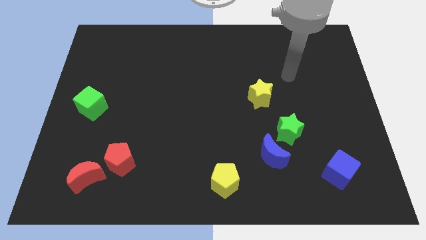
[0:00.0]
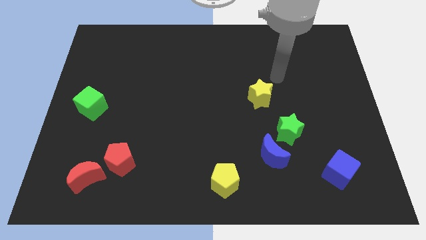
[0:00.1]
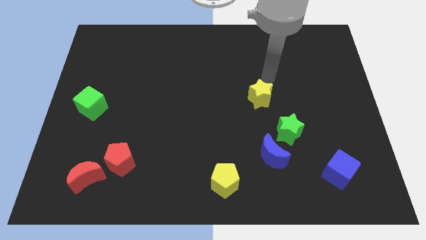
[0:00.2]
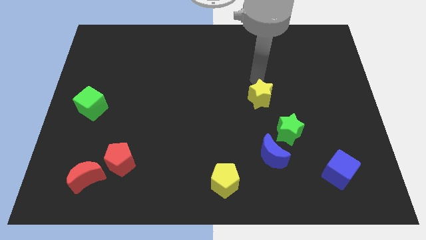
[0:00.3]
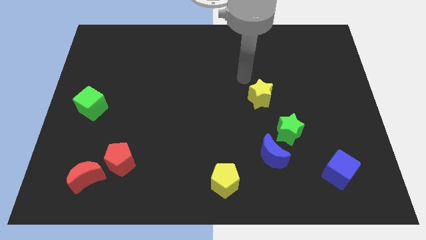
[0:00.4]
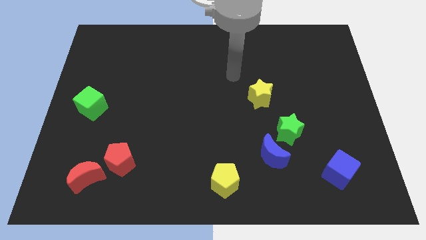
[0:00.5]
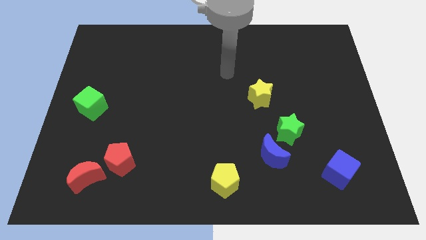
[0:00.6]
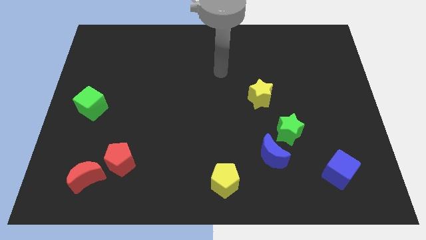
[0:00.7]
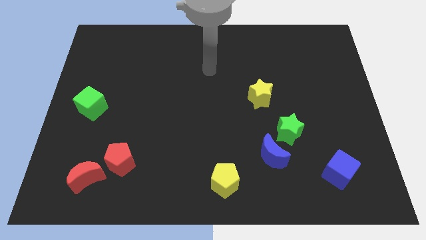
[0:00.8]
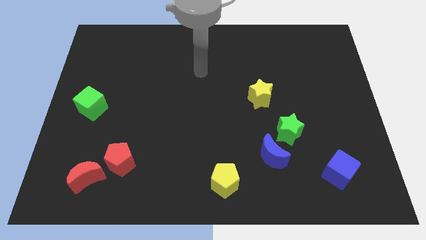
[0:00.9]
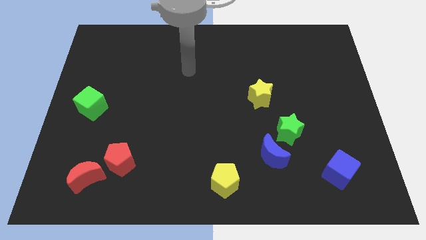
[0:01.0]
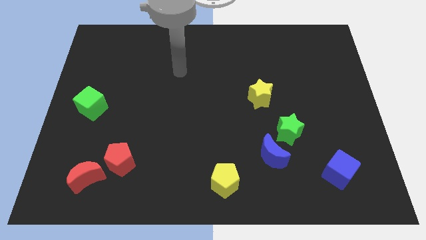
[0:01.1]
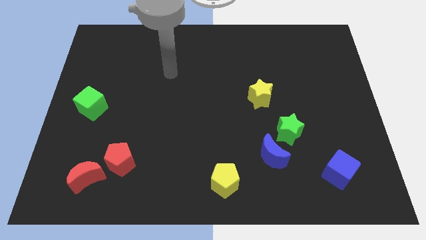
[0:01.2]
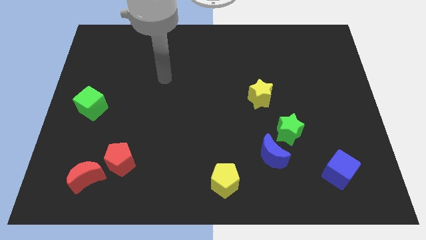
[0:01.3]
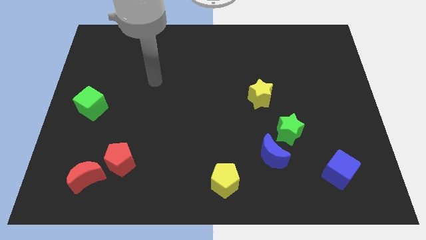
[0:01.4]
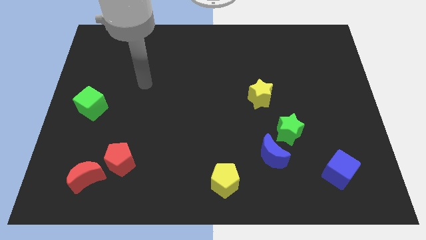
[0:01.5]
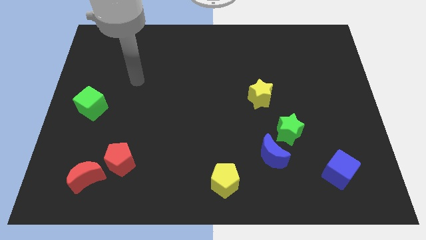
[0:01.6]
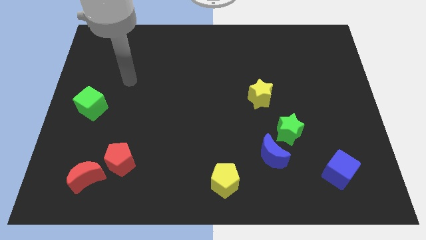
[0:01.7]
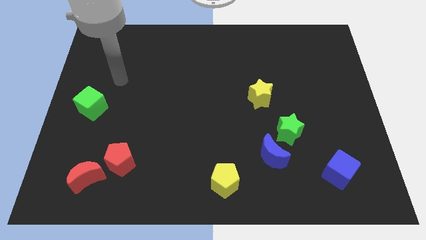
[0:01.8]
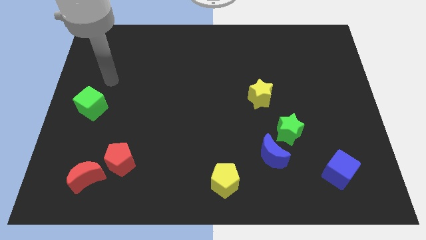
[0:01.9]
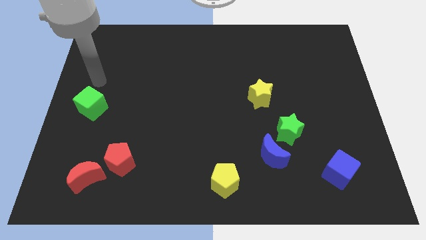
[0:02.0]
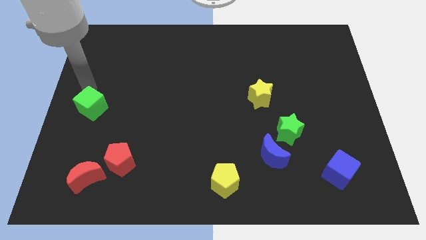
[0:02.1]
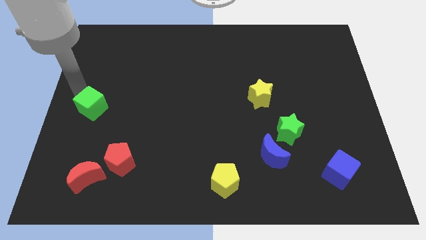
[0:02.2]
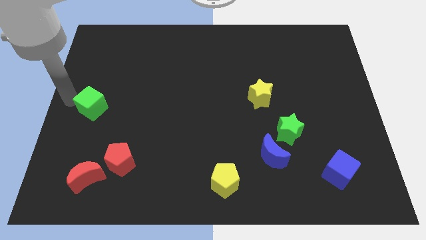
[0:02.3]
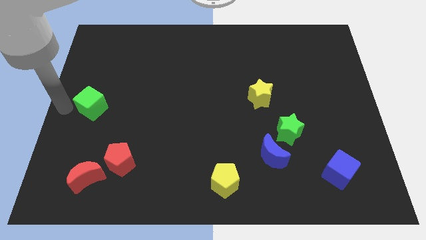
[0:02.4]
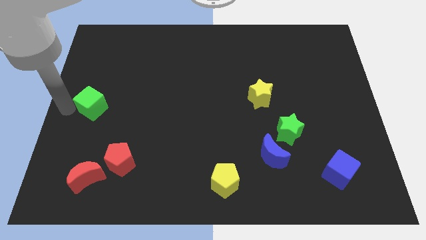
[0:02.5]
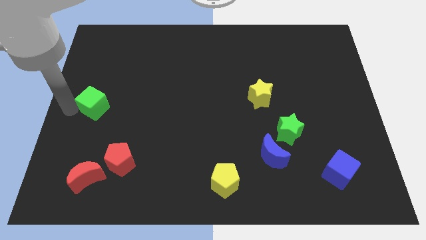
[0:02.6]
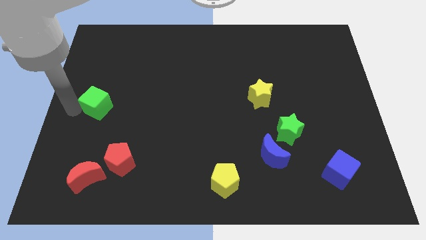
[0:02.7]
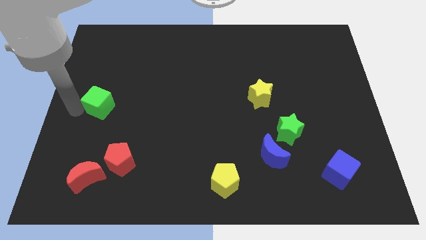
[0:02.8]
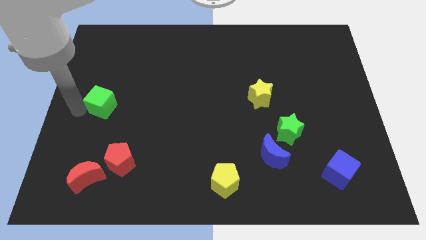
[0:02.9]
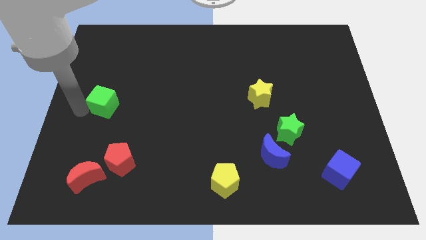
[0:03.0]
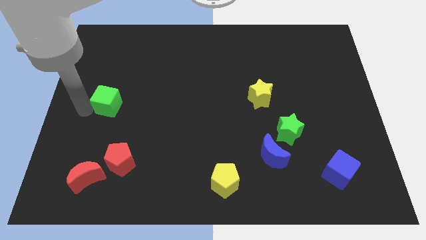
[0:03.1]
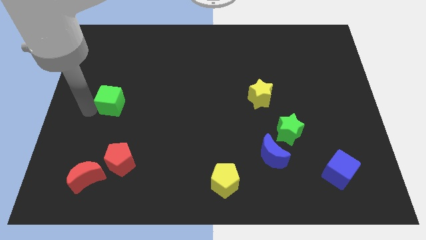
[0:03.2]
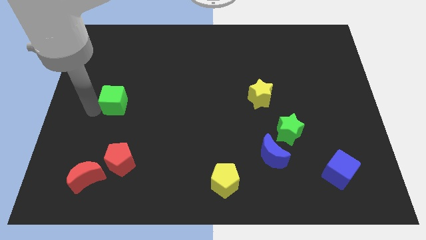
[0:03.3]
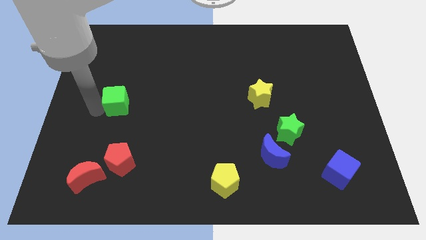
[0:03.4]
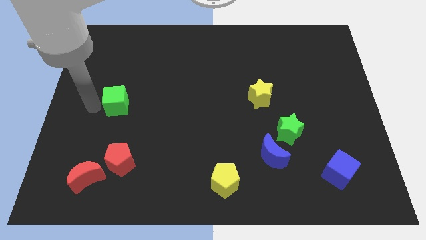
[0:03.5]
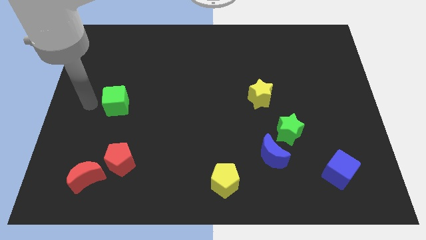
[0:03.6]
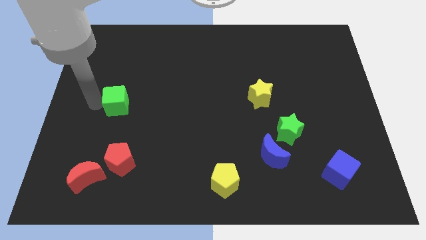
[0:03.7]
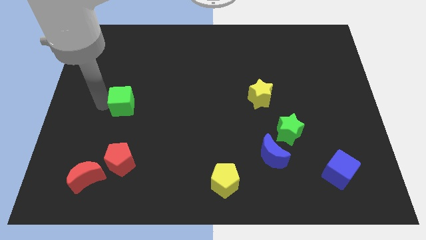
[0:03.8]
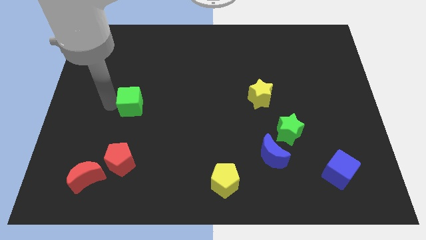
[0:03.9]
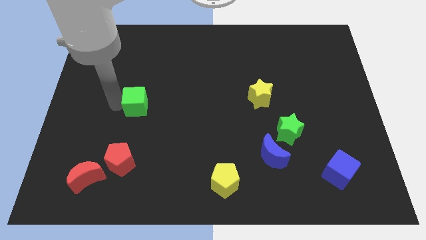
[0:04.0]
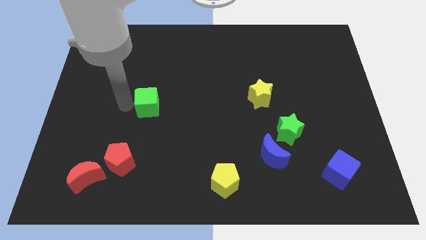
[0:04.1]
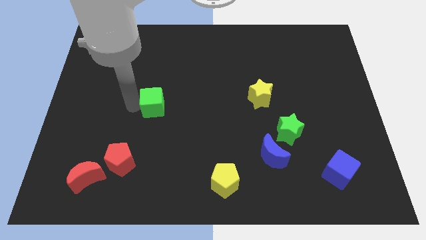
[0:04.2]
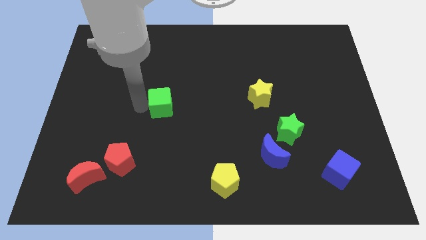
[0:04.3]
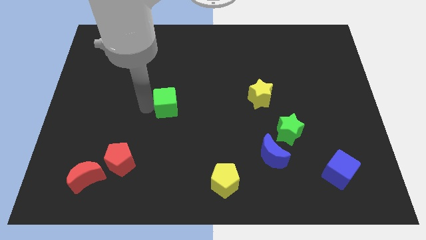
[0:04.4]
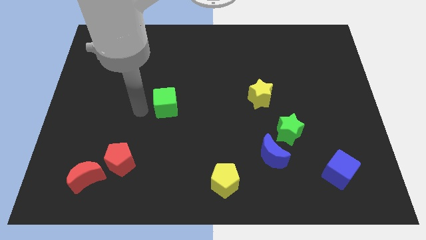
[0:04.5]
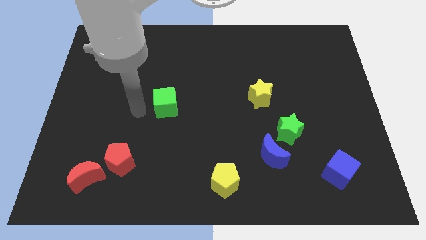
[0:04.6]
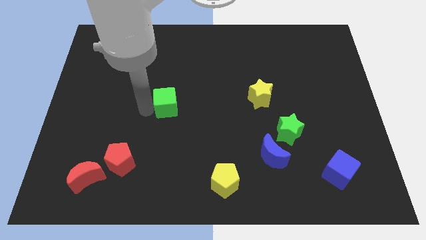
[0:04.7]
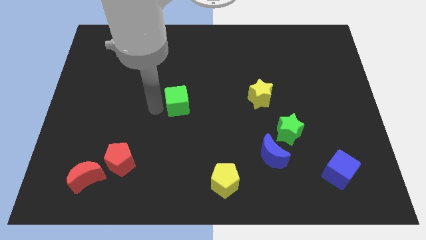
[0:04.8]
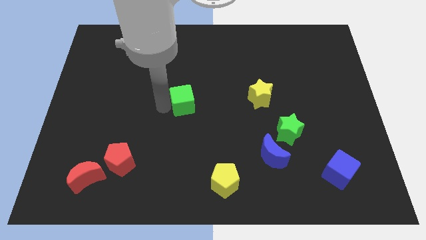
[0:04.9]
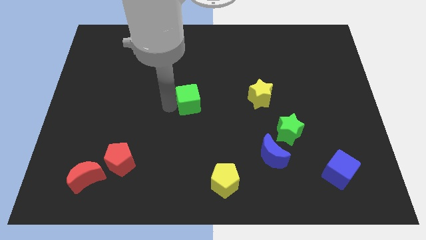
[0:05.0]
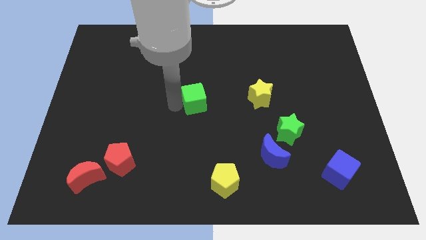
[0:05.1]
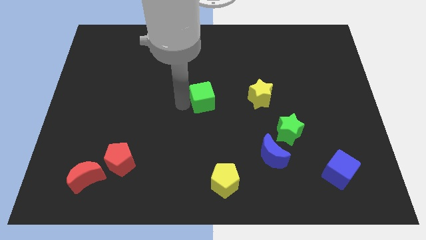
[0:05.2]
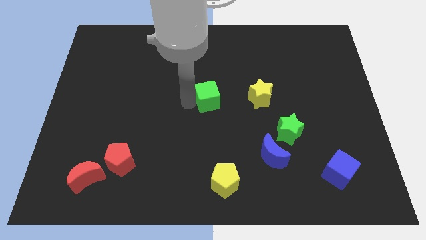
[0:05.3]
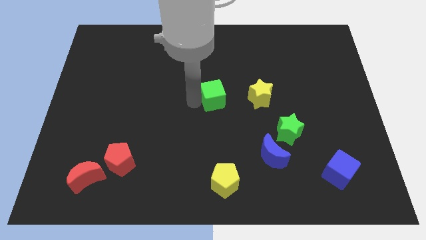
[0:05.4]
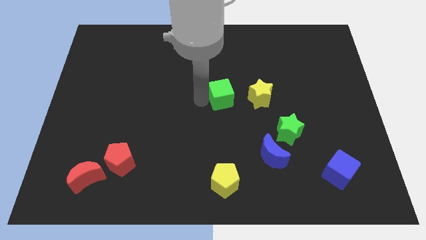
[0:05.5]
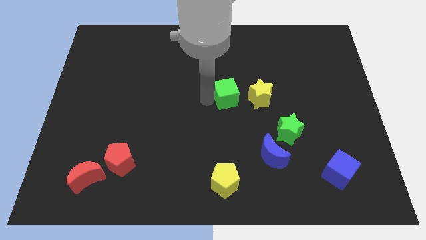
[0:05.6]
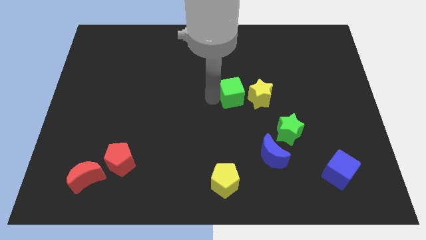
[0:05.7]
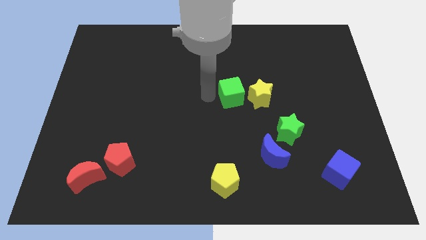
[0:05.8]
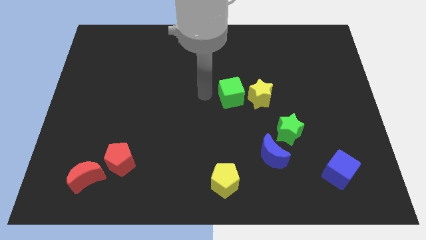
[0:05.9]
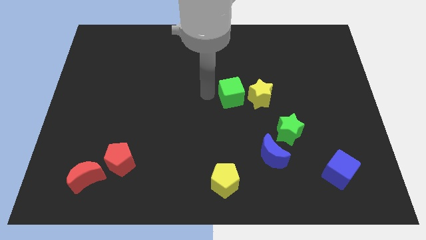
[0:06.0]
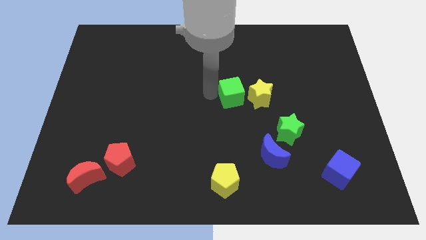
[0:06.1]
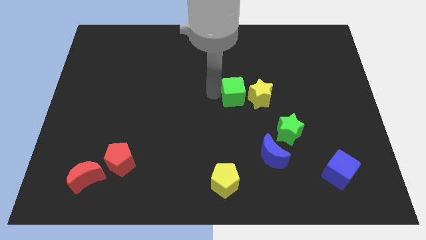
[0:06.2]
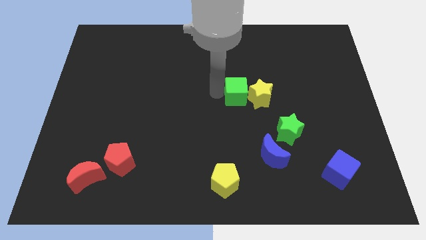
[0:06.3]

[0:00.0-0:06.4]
slide the green cube next to the yellow star
